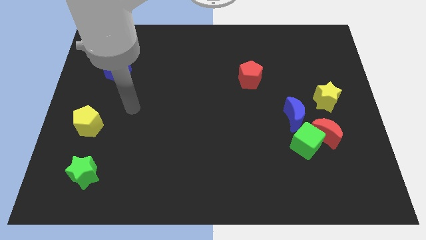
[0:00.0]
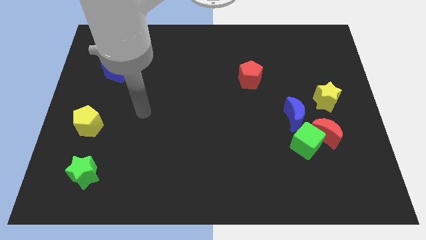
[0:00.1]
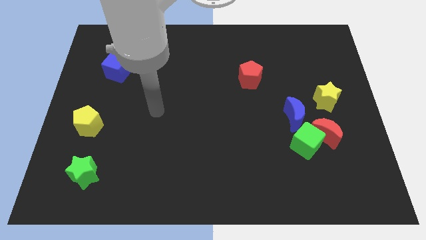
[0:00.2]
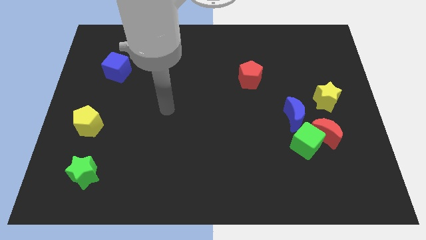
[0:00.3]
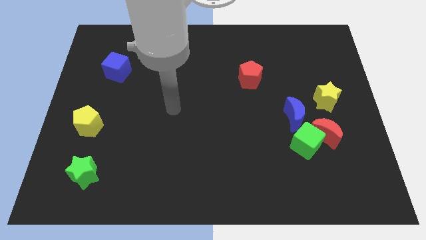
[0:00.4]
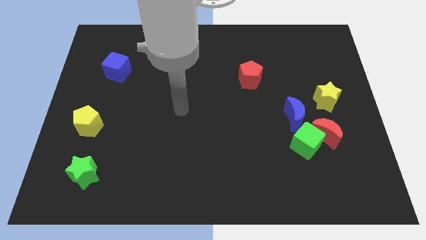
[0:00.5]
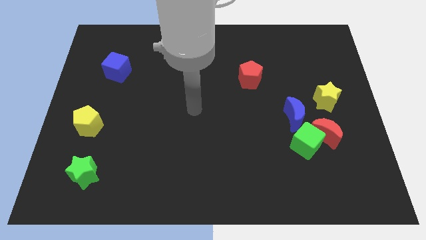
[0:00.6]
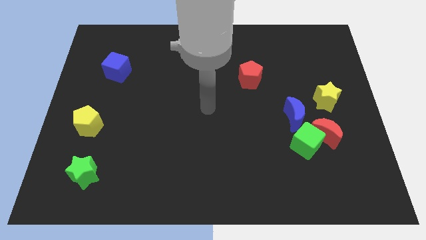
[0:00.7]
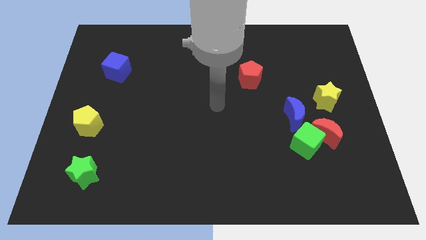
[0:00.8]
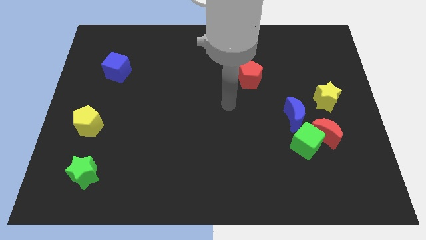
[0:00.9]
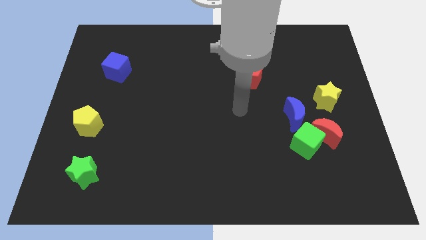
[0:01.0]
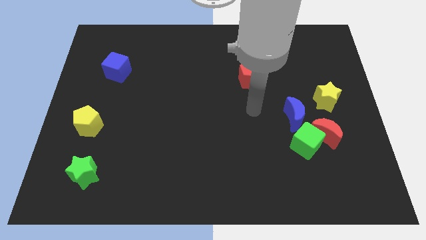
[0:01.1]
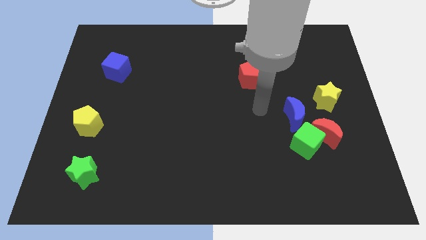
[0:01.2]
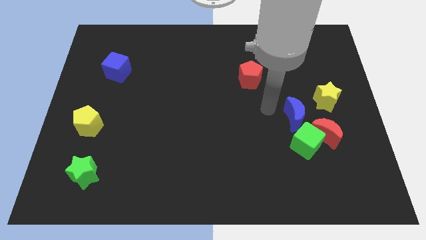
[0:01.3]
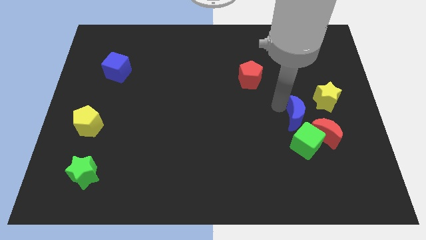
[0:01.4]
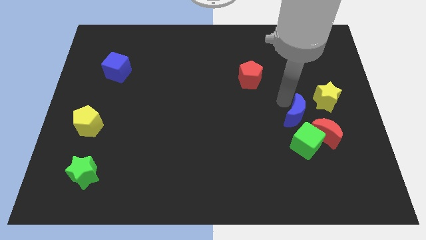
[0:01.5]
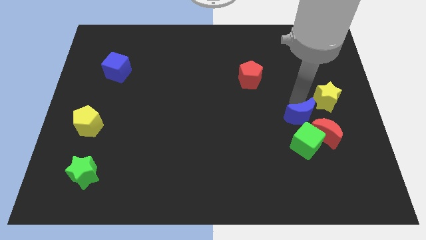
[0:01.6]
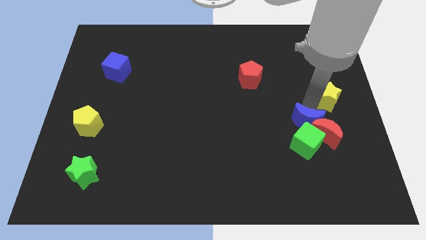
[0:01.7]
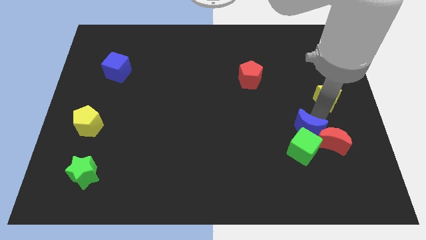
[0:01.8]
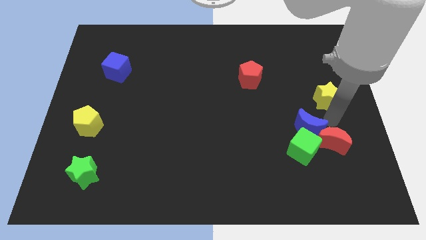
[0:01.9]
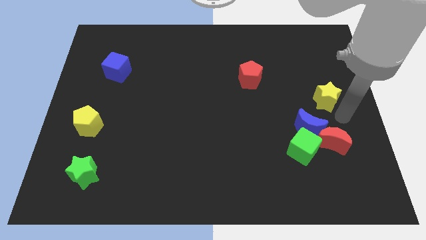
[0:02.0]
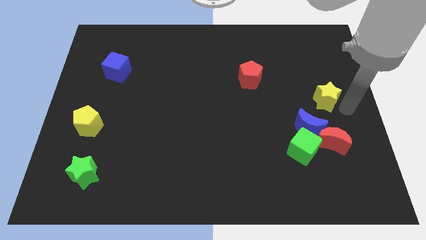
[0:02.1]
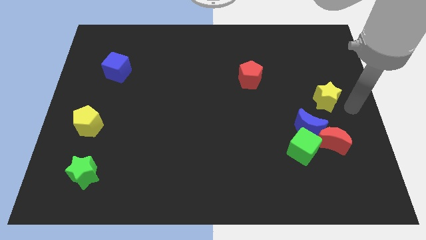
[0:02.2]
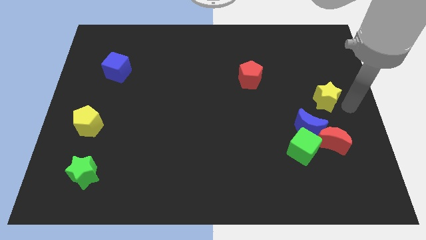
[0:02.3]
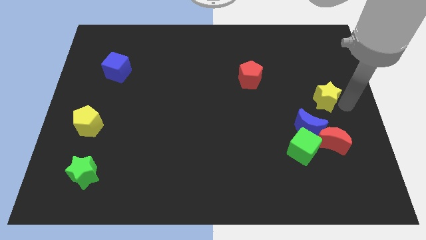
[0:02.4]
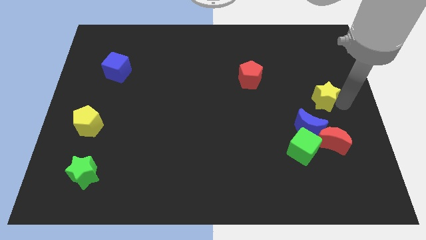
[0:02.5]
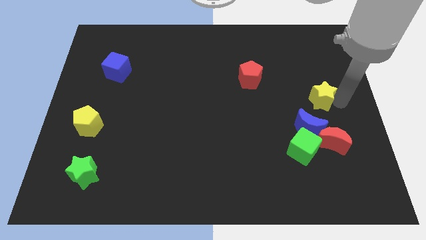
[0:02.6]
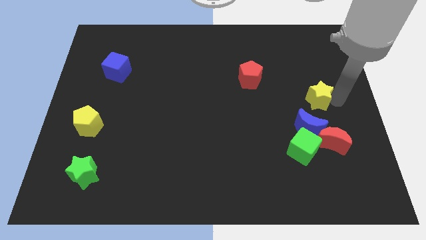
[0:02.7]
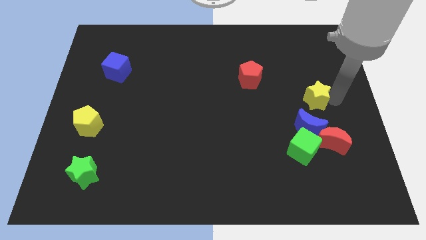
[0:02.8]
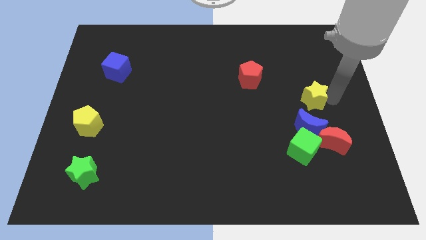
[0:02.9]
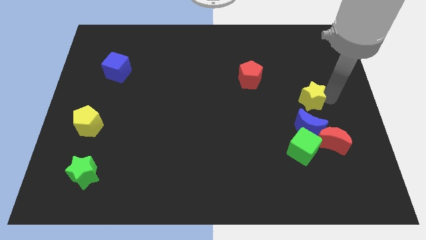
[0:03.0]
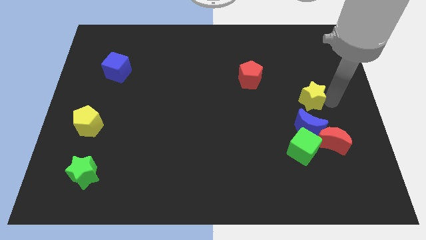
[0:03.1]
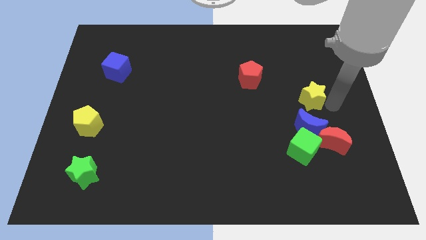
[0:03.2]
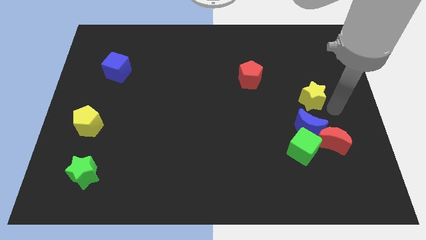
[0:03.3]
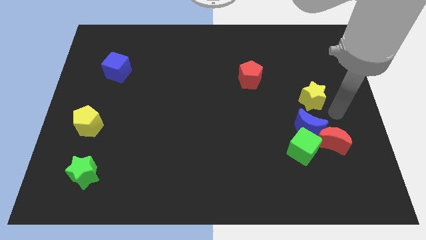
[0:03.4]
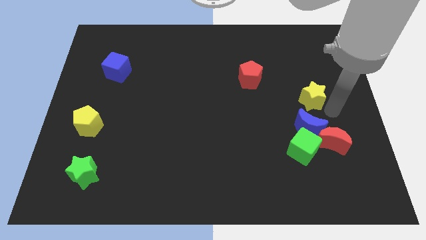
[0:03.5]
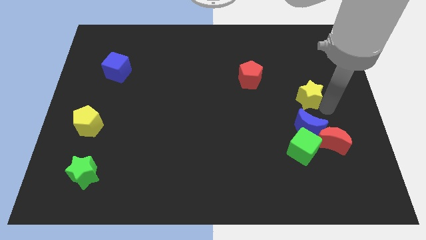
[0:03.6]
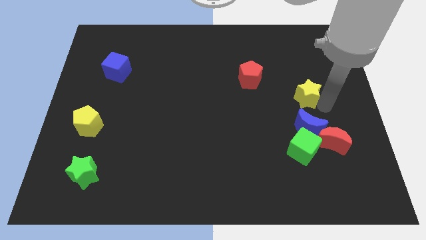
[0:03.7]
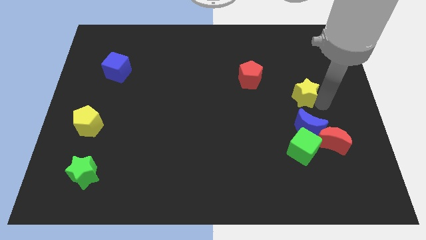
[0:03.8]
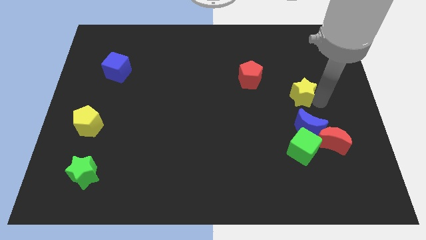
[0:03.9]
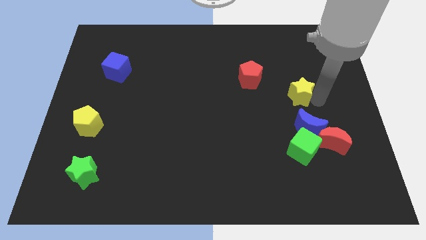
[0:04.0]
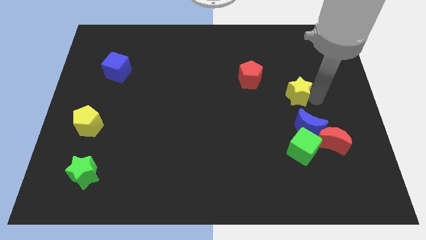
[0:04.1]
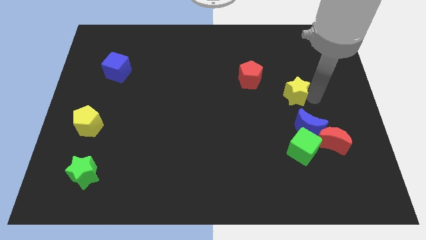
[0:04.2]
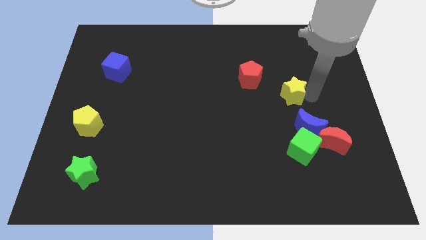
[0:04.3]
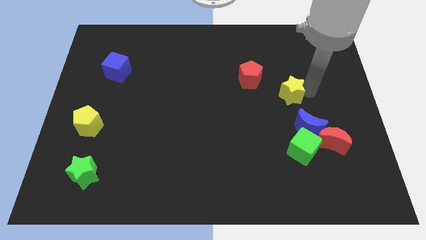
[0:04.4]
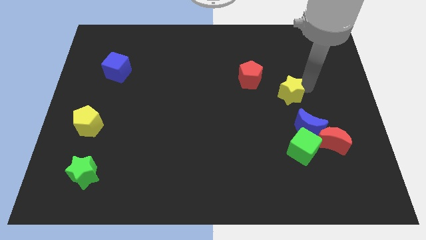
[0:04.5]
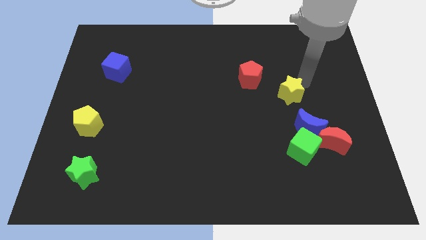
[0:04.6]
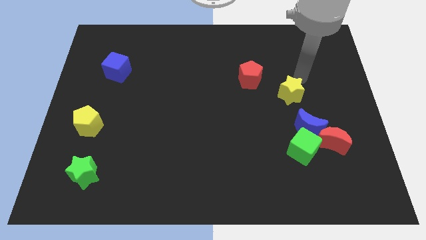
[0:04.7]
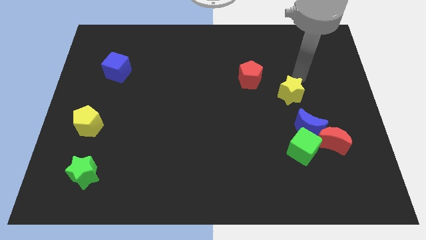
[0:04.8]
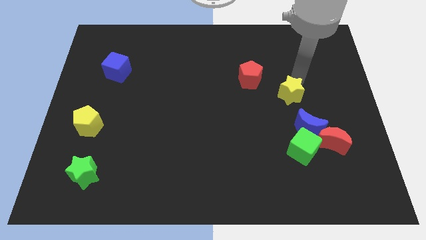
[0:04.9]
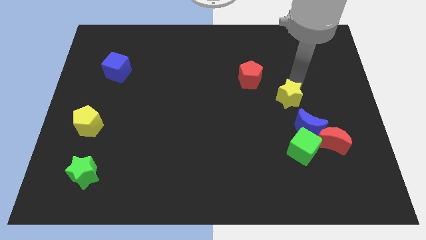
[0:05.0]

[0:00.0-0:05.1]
push the yellow star to the top left side of the blue moon

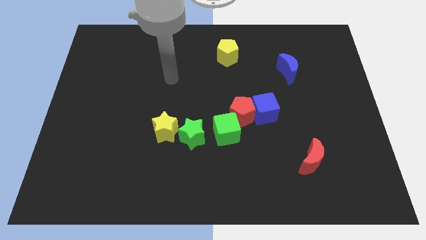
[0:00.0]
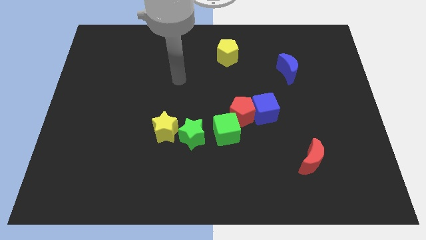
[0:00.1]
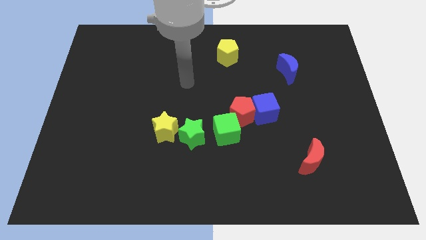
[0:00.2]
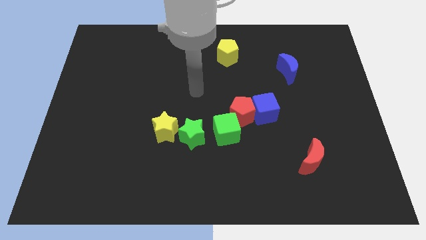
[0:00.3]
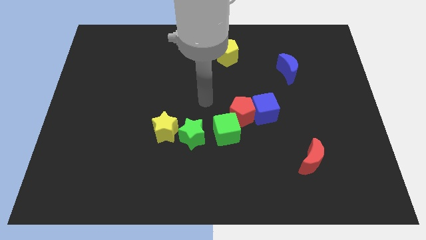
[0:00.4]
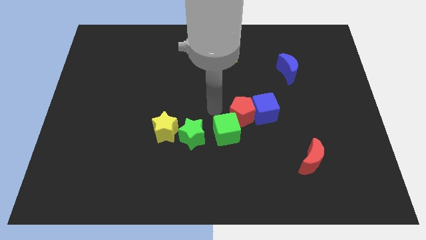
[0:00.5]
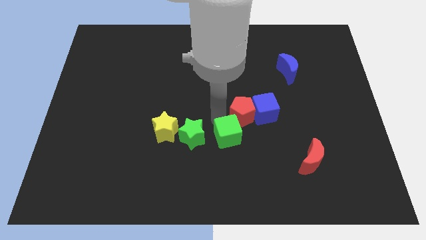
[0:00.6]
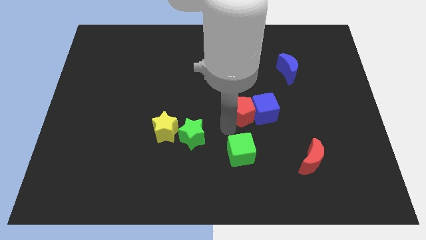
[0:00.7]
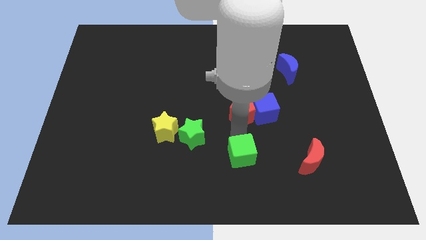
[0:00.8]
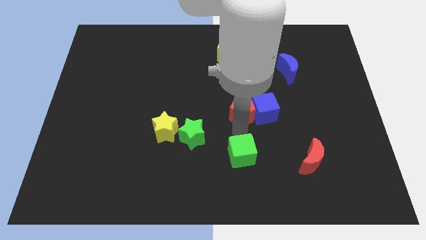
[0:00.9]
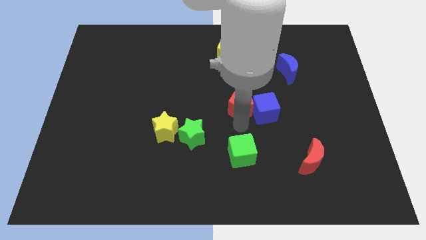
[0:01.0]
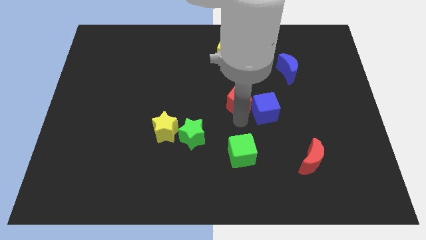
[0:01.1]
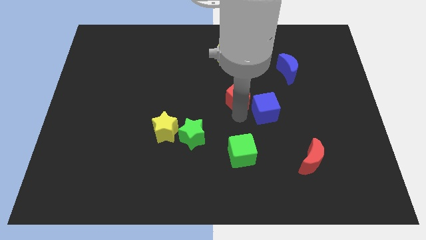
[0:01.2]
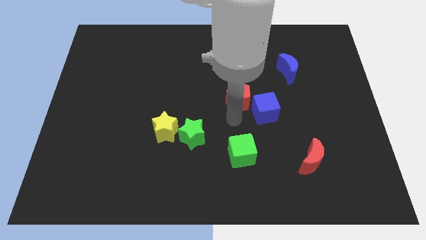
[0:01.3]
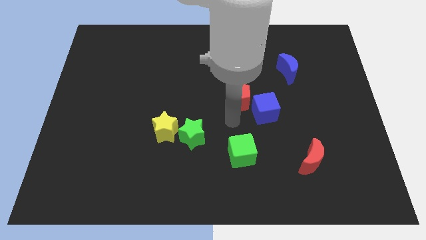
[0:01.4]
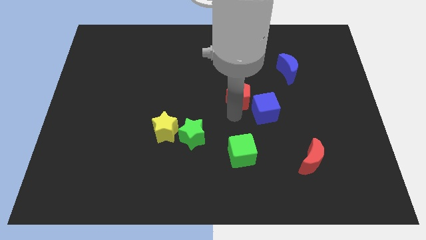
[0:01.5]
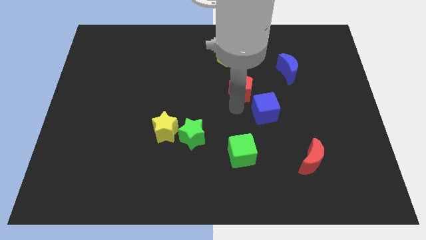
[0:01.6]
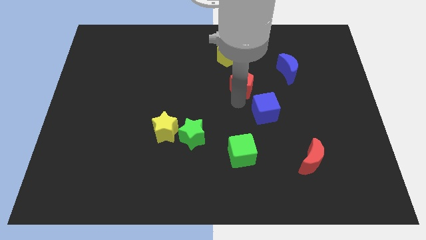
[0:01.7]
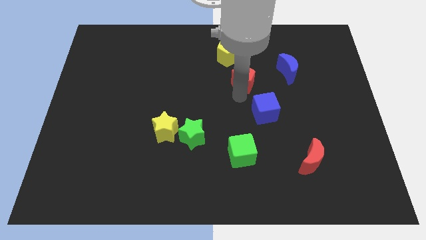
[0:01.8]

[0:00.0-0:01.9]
slide the red pentagon to the bottom right side of the yellow pentagon
